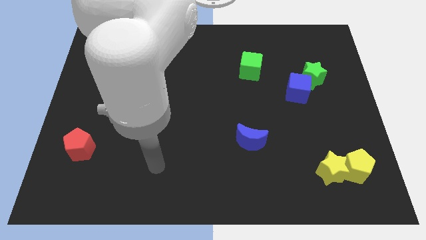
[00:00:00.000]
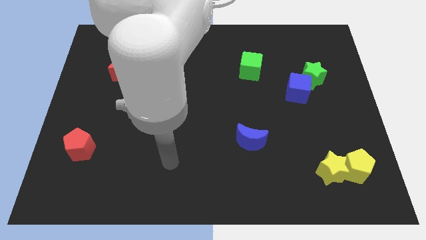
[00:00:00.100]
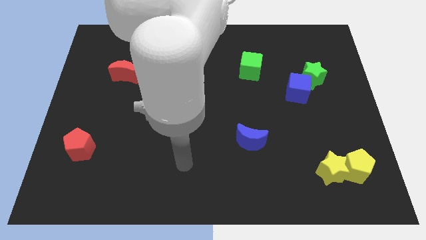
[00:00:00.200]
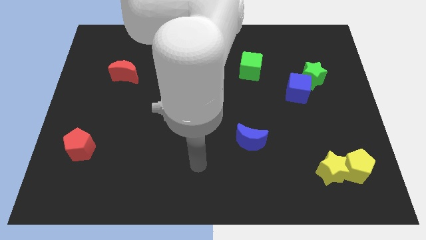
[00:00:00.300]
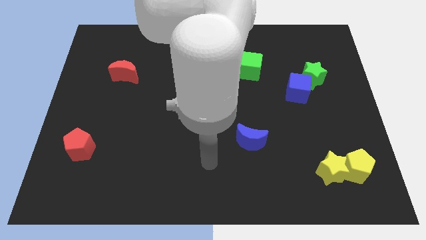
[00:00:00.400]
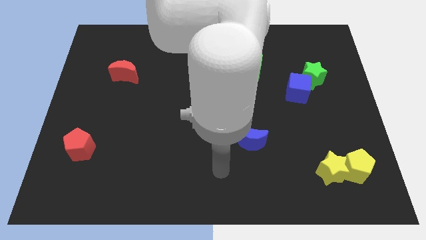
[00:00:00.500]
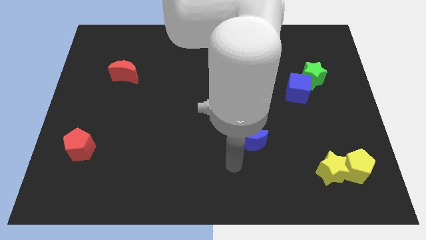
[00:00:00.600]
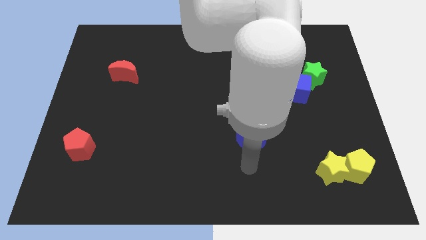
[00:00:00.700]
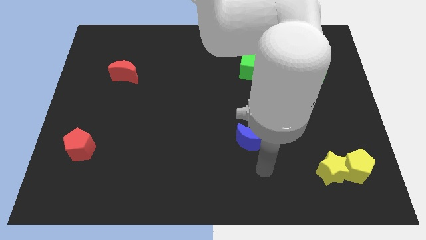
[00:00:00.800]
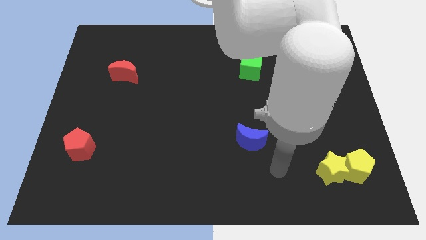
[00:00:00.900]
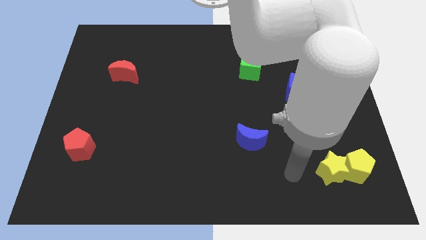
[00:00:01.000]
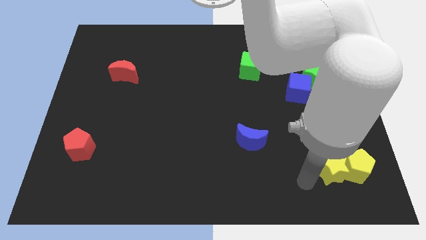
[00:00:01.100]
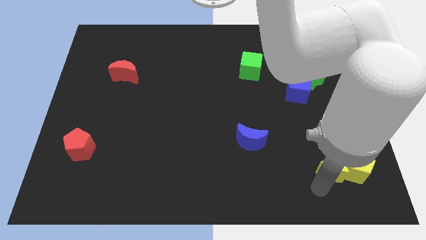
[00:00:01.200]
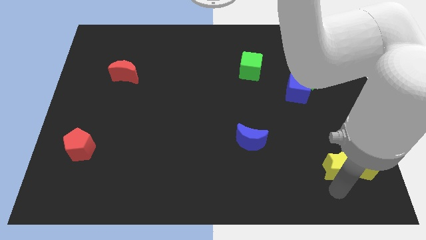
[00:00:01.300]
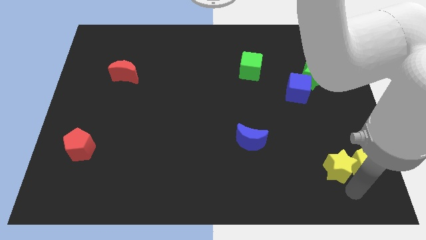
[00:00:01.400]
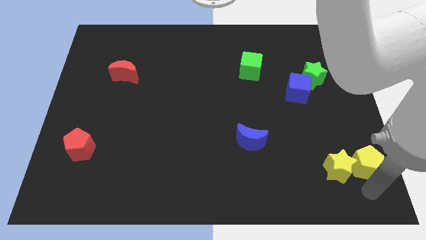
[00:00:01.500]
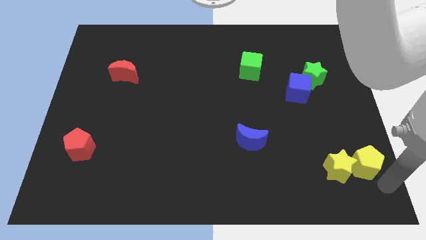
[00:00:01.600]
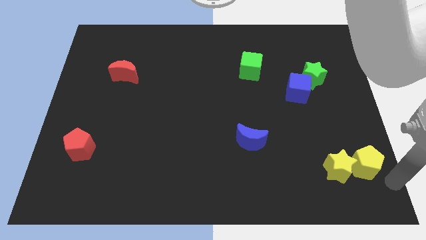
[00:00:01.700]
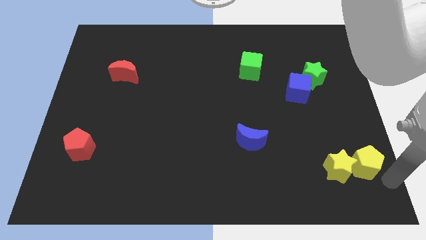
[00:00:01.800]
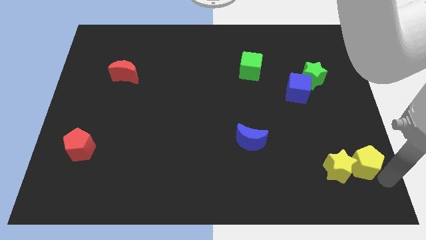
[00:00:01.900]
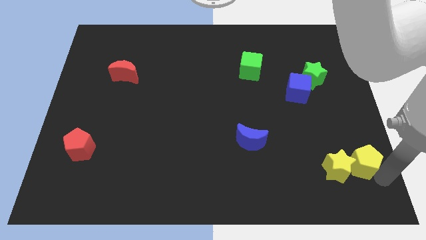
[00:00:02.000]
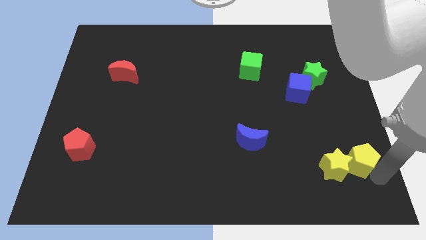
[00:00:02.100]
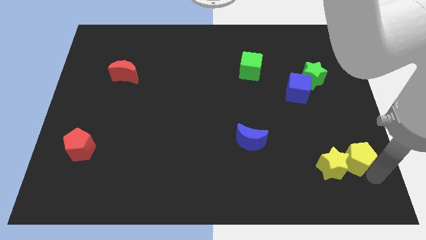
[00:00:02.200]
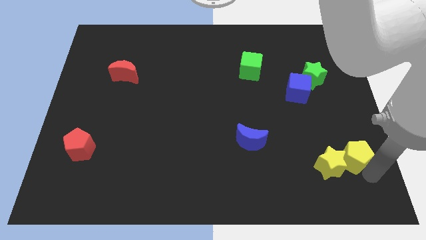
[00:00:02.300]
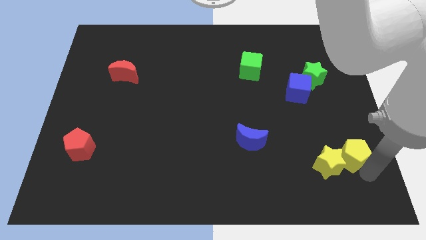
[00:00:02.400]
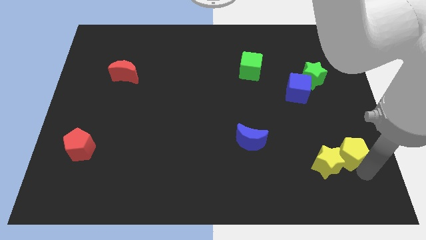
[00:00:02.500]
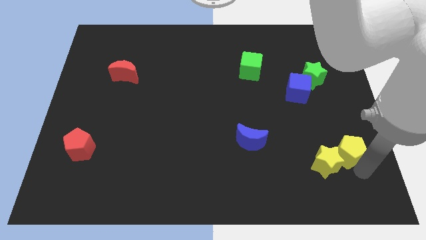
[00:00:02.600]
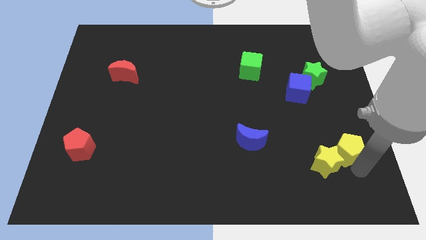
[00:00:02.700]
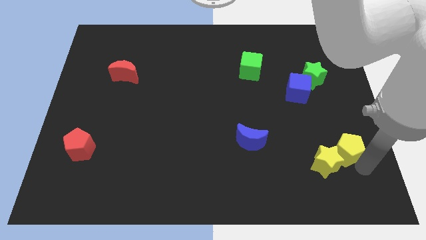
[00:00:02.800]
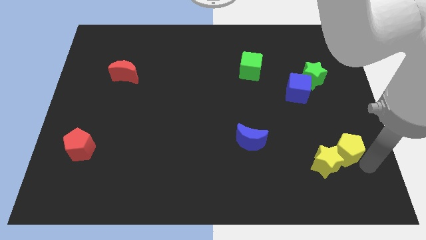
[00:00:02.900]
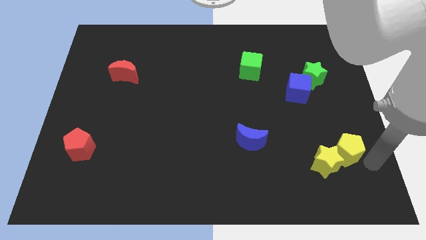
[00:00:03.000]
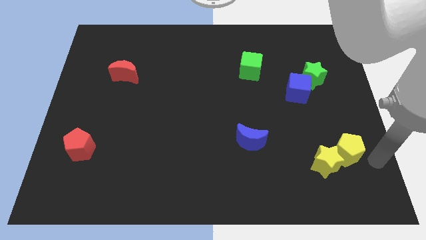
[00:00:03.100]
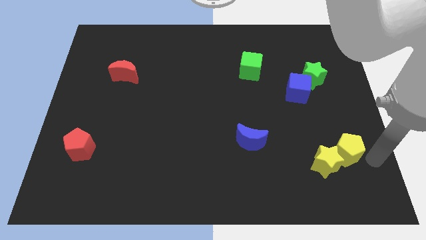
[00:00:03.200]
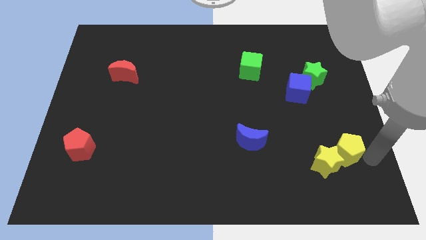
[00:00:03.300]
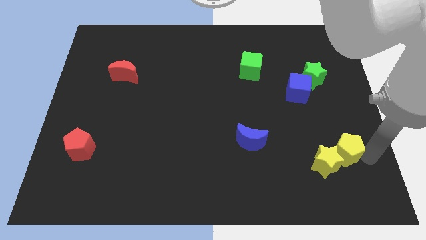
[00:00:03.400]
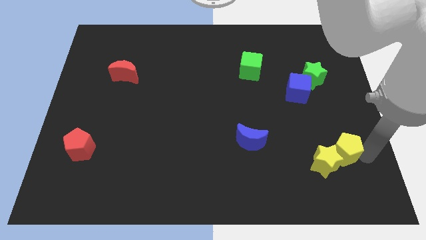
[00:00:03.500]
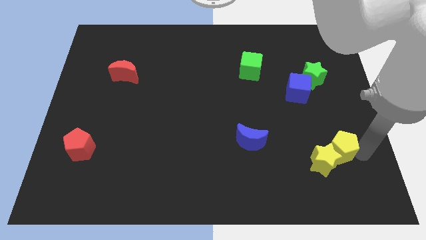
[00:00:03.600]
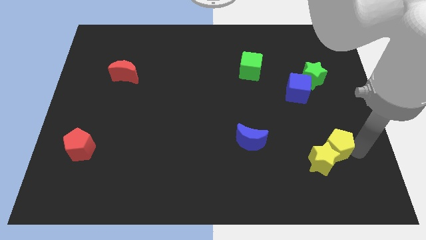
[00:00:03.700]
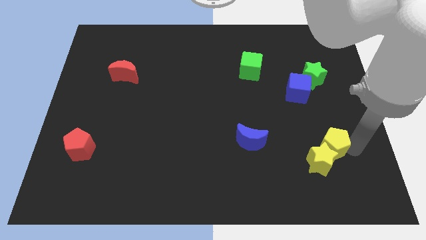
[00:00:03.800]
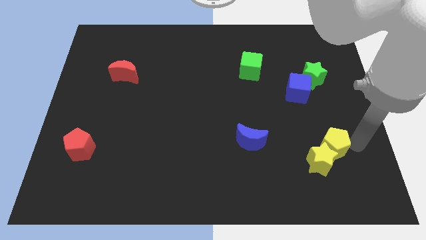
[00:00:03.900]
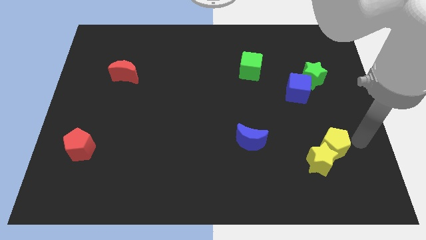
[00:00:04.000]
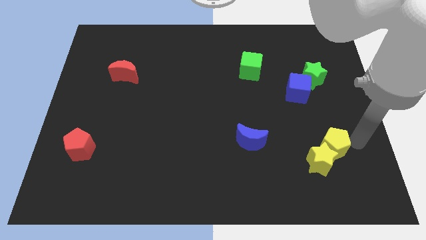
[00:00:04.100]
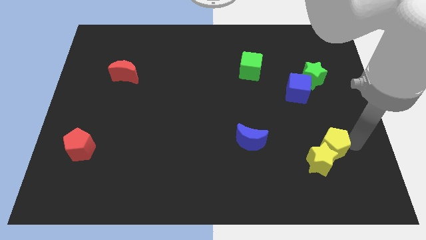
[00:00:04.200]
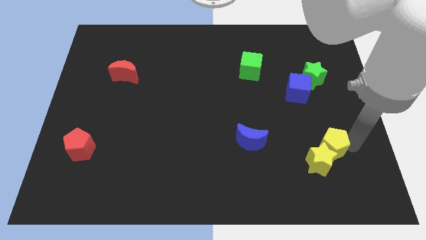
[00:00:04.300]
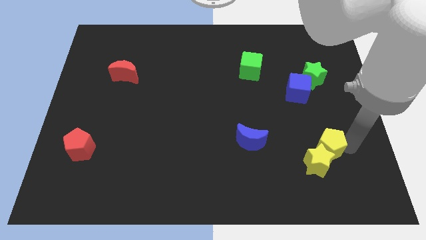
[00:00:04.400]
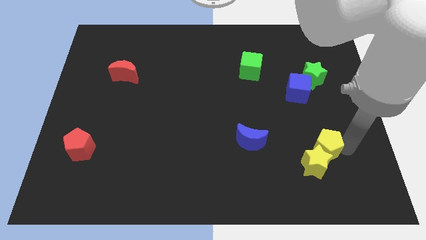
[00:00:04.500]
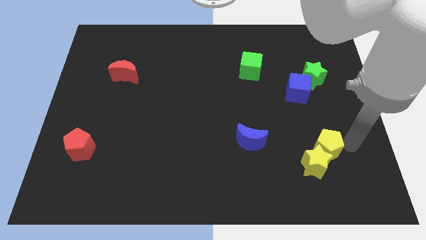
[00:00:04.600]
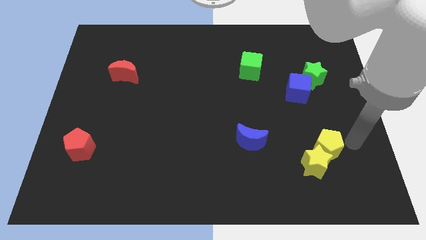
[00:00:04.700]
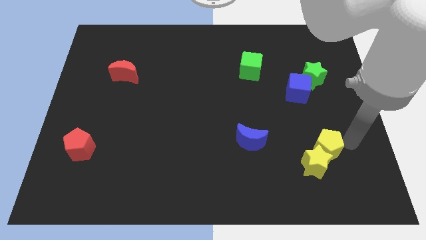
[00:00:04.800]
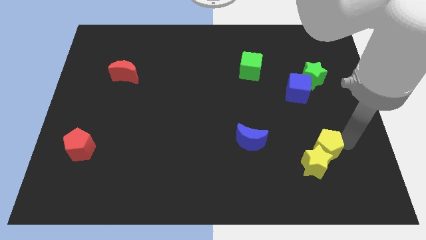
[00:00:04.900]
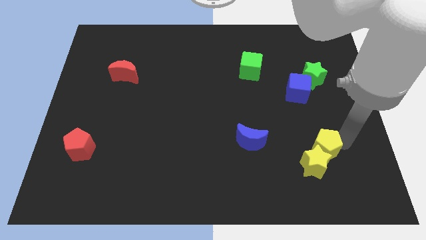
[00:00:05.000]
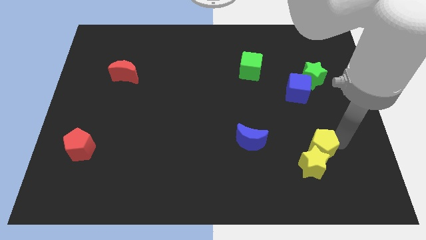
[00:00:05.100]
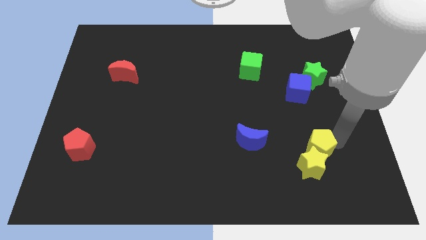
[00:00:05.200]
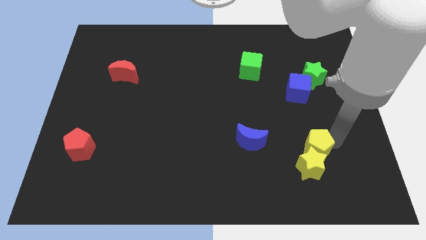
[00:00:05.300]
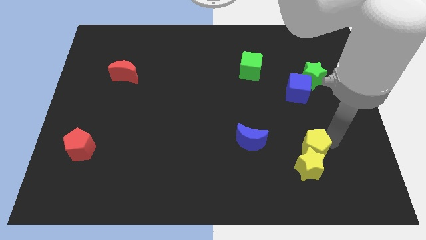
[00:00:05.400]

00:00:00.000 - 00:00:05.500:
move the yellow pentagon to the left a little

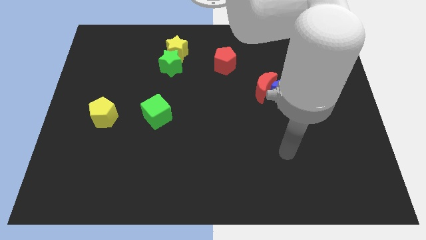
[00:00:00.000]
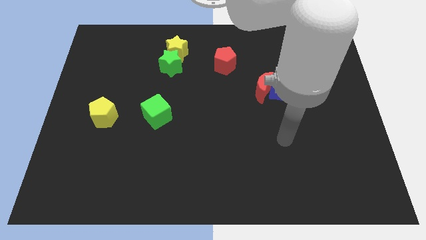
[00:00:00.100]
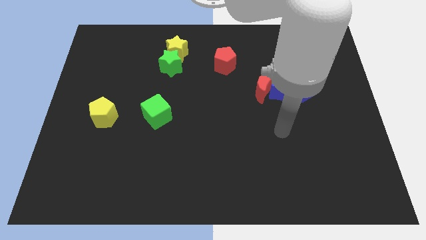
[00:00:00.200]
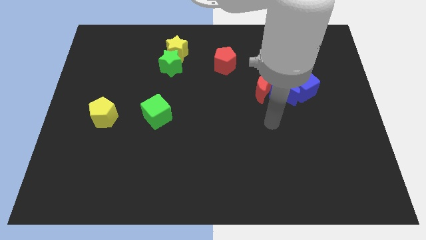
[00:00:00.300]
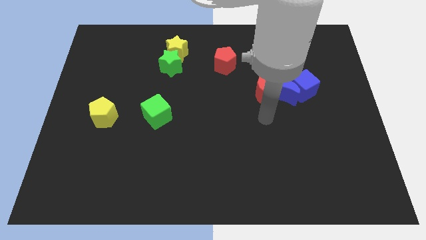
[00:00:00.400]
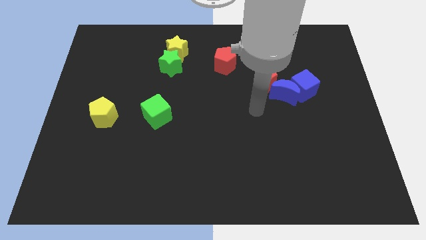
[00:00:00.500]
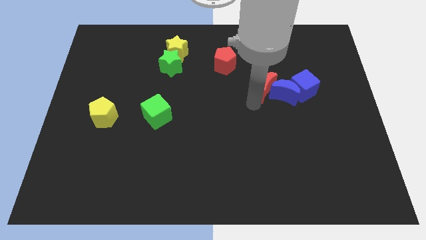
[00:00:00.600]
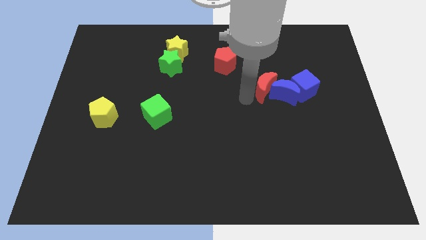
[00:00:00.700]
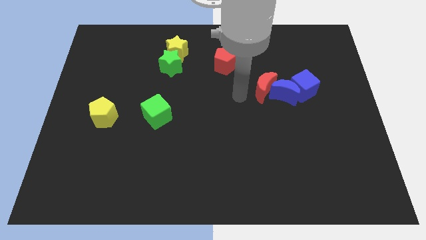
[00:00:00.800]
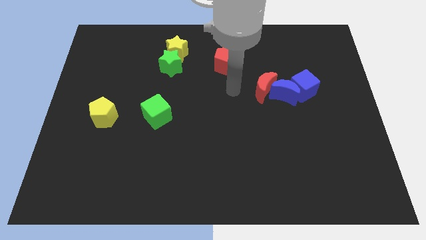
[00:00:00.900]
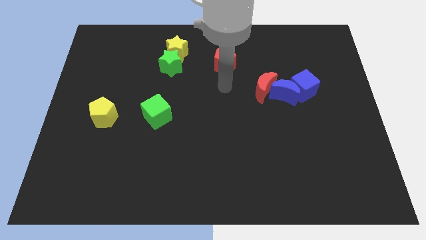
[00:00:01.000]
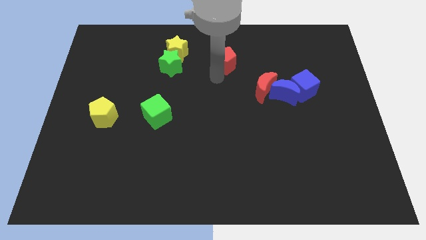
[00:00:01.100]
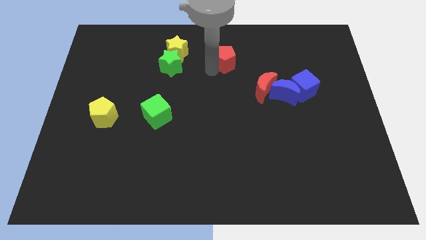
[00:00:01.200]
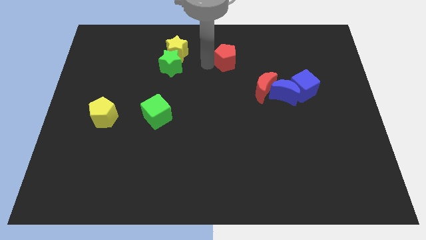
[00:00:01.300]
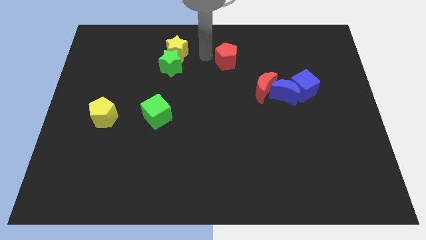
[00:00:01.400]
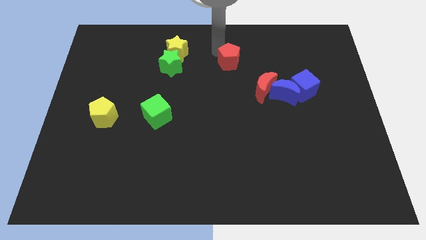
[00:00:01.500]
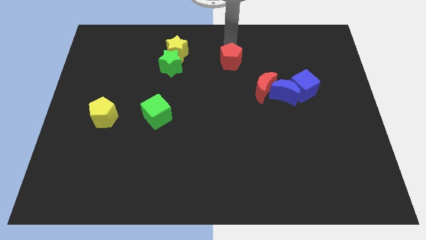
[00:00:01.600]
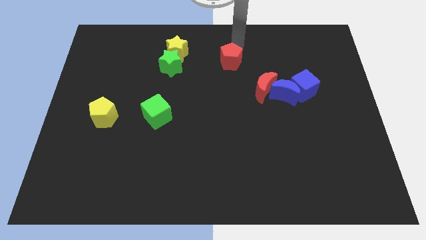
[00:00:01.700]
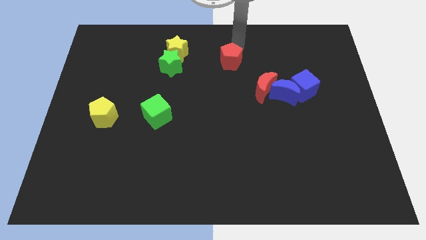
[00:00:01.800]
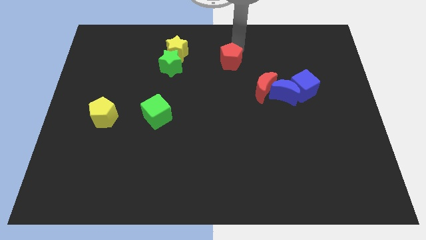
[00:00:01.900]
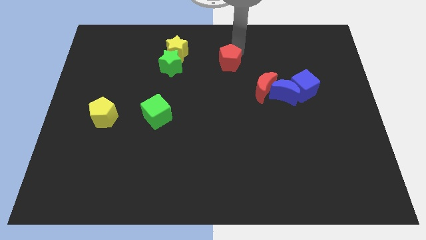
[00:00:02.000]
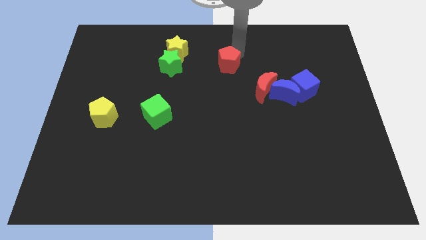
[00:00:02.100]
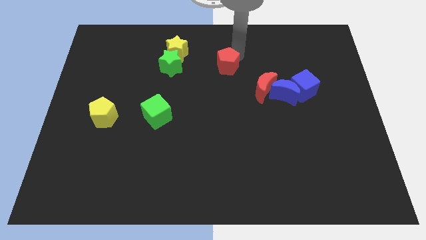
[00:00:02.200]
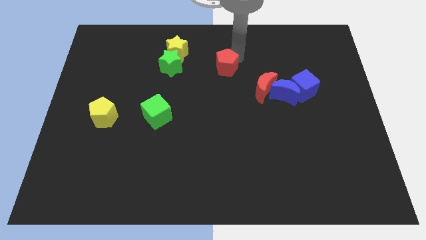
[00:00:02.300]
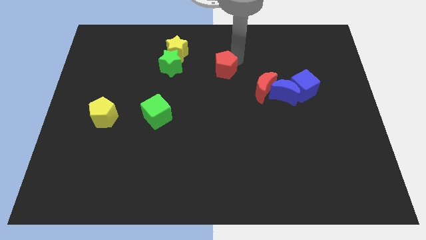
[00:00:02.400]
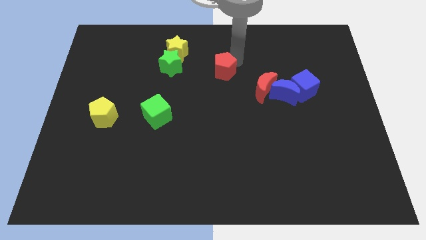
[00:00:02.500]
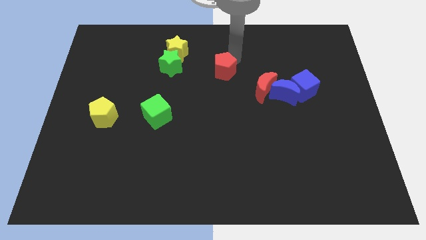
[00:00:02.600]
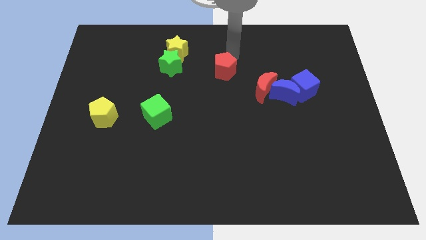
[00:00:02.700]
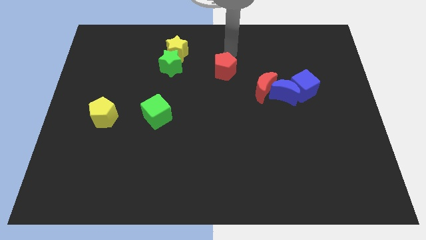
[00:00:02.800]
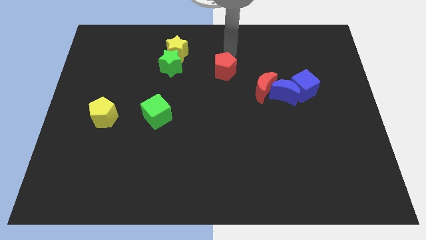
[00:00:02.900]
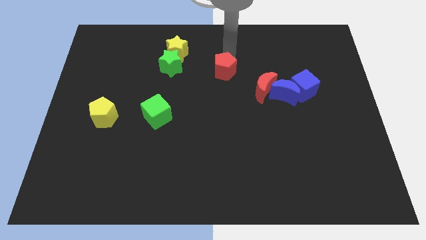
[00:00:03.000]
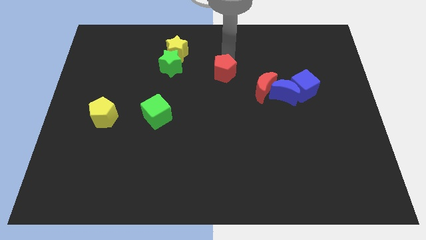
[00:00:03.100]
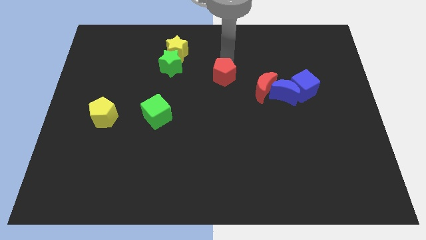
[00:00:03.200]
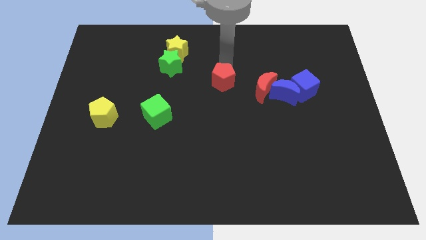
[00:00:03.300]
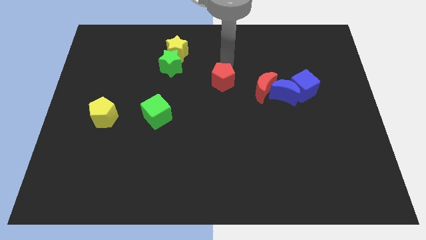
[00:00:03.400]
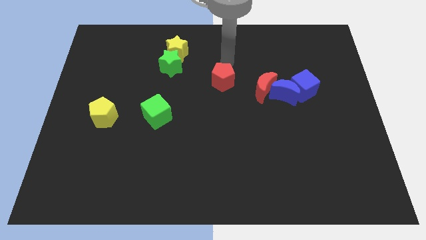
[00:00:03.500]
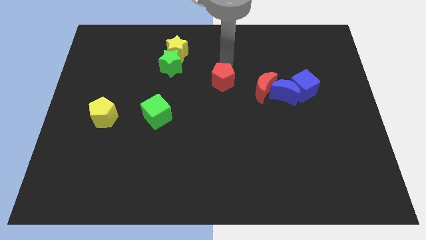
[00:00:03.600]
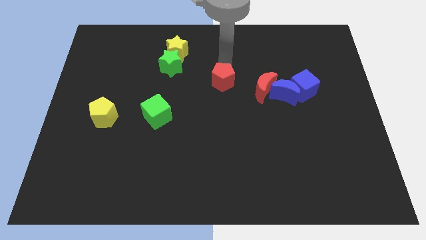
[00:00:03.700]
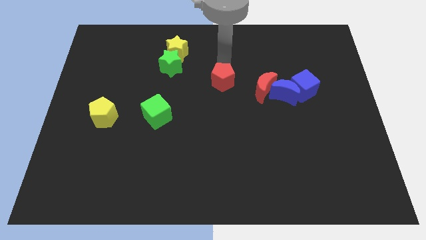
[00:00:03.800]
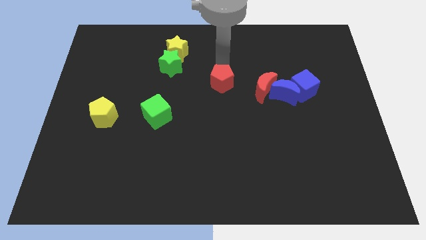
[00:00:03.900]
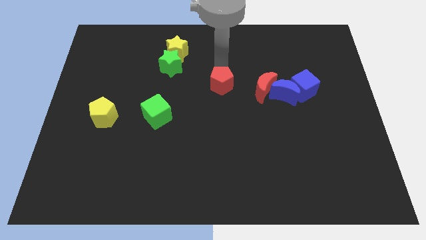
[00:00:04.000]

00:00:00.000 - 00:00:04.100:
move the red pentagon downwards slightly
